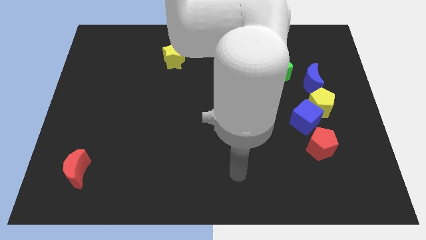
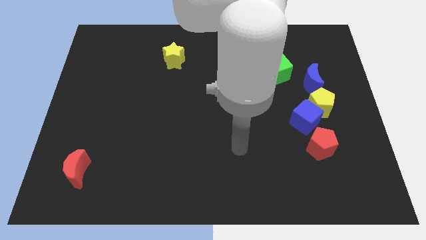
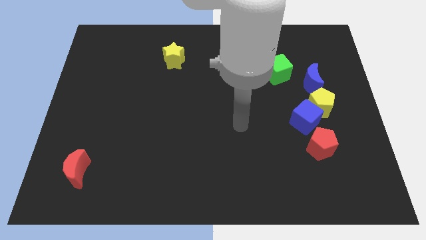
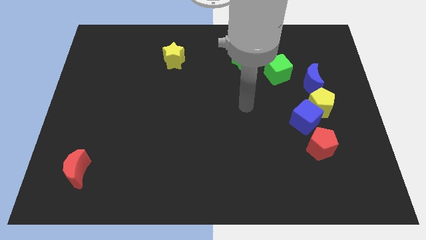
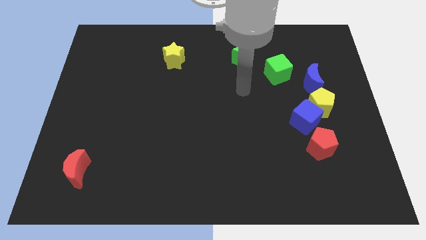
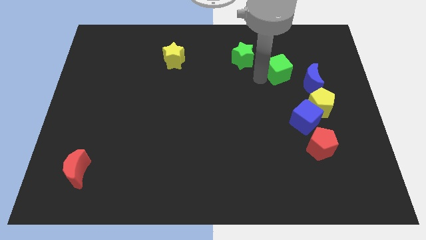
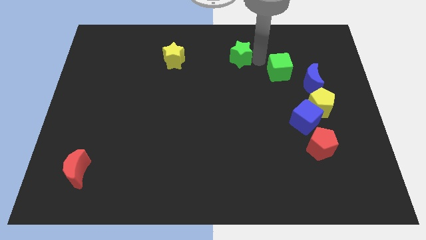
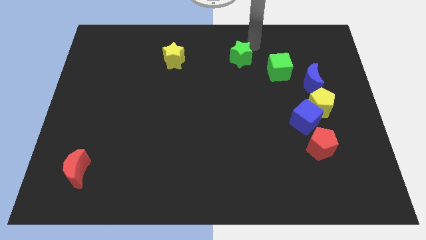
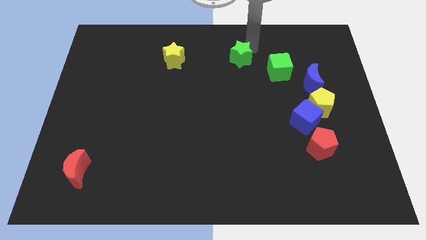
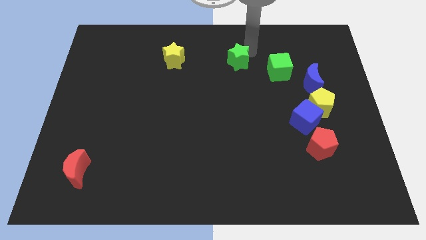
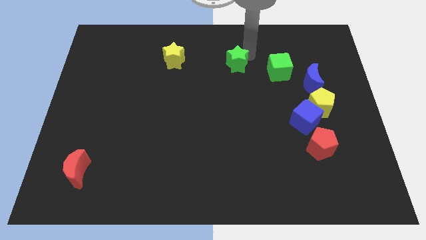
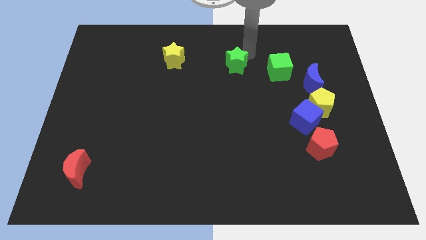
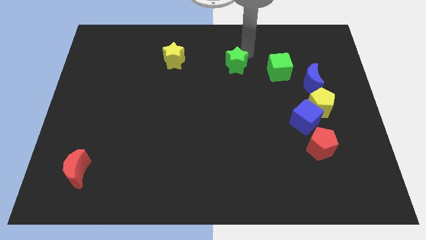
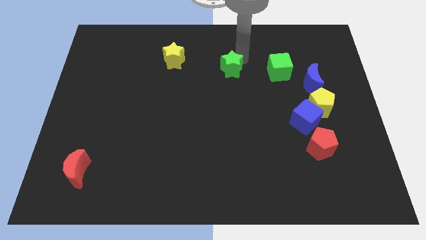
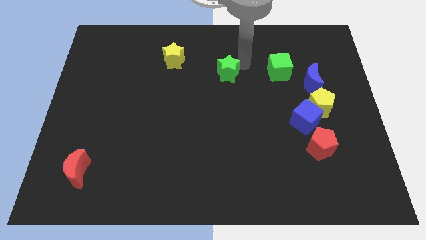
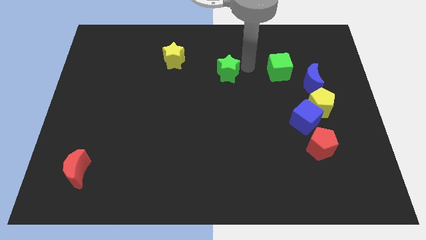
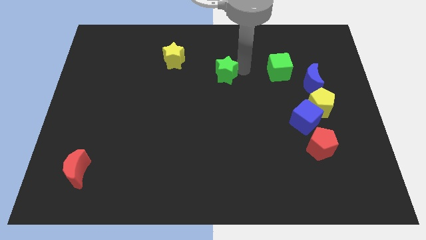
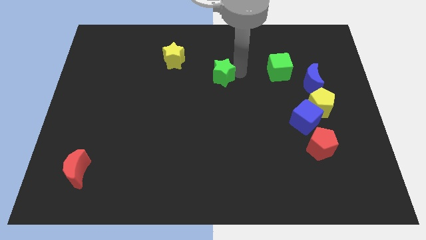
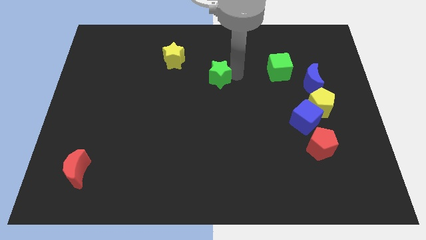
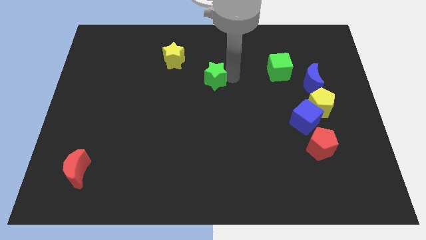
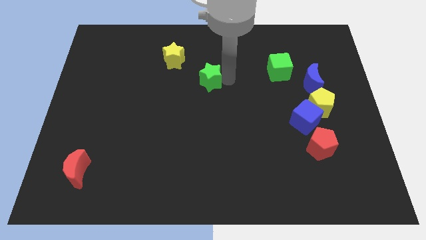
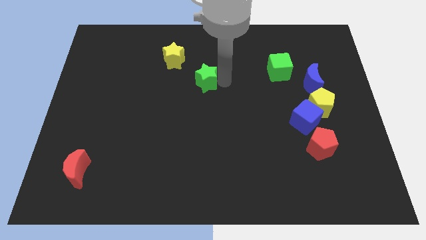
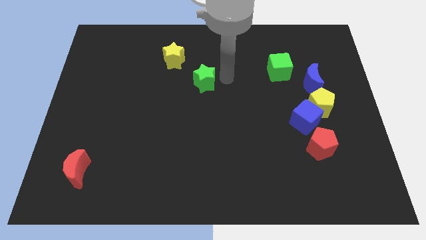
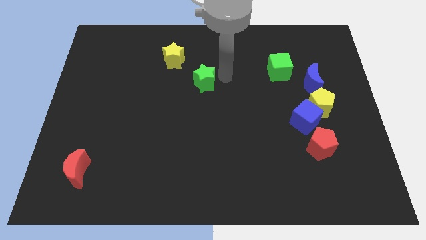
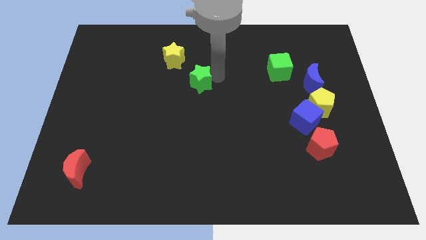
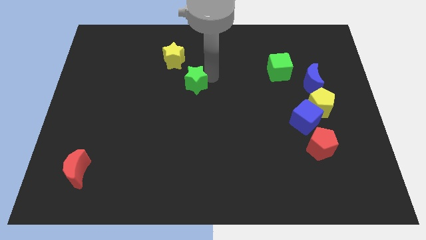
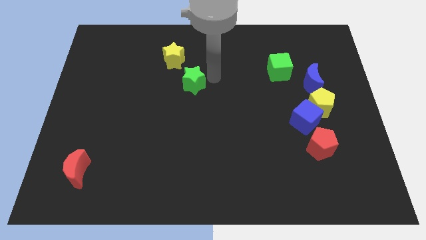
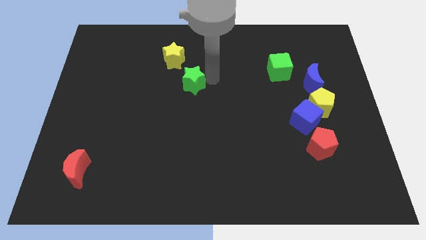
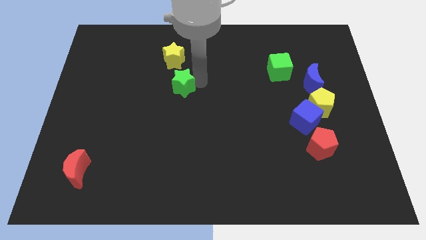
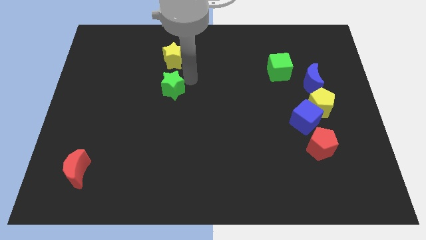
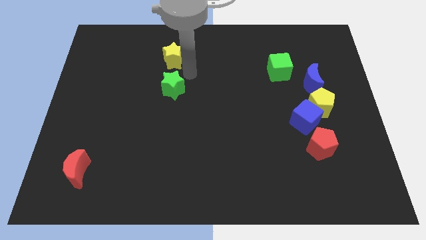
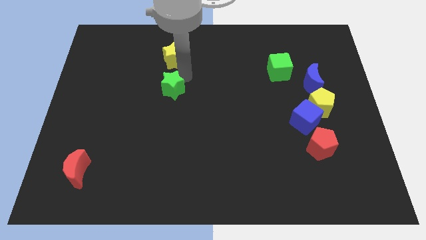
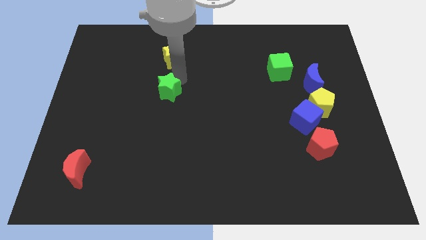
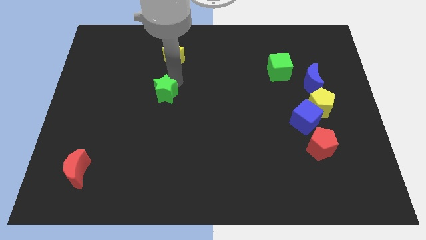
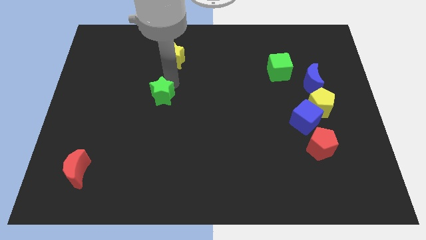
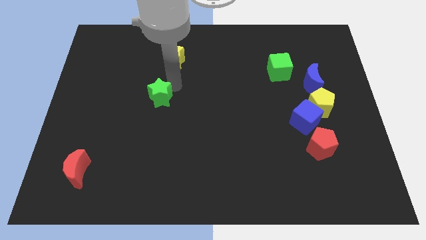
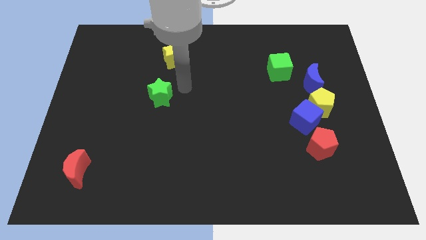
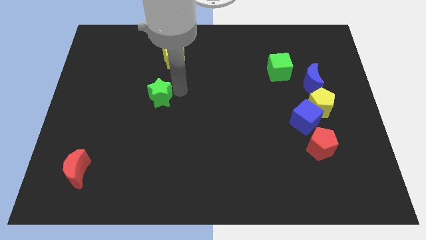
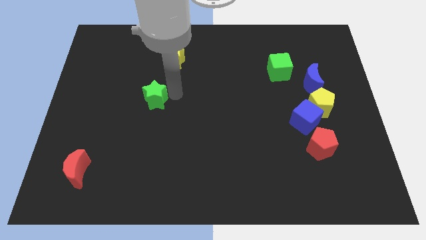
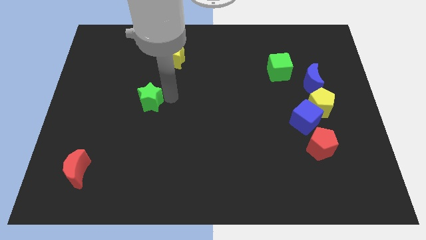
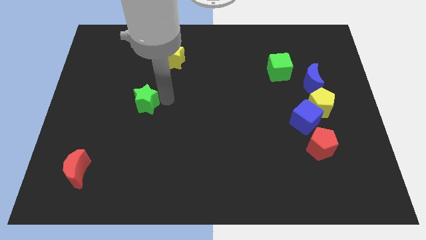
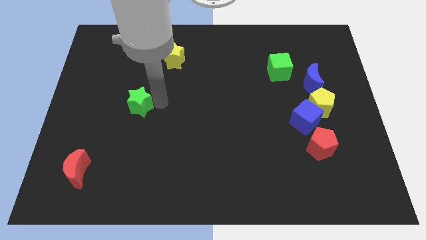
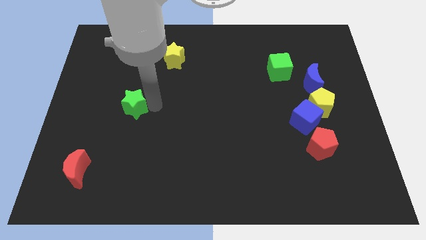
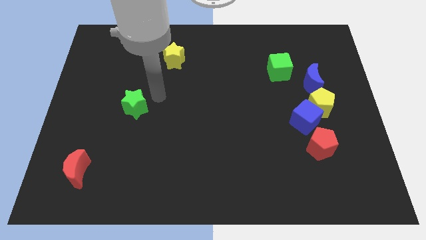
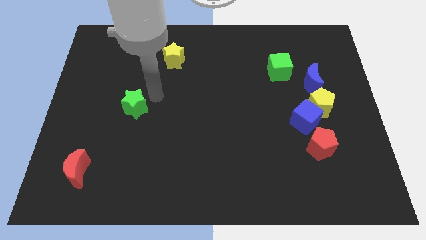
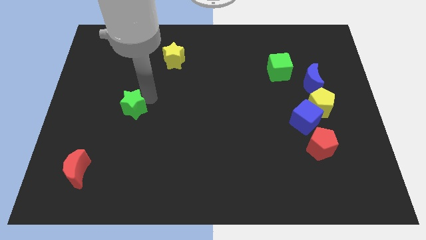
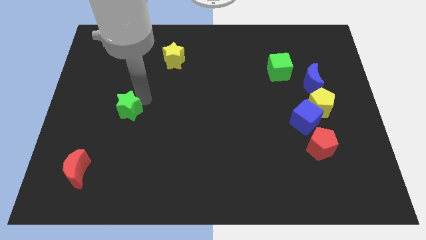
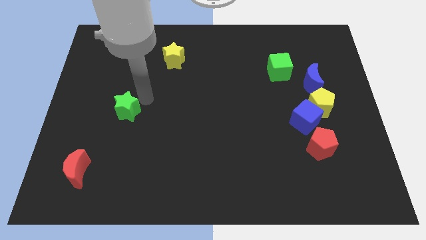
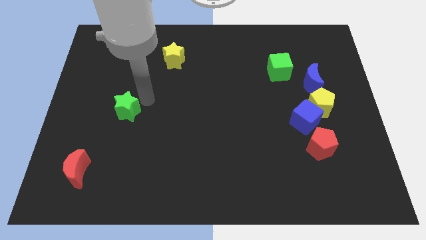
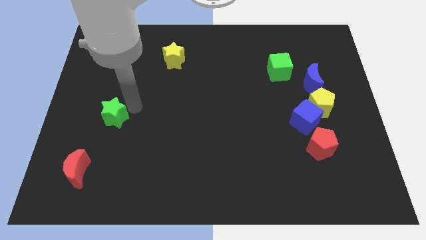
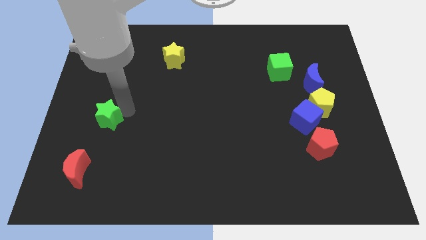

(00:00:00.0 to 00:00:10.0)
put the green star to the top side of the red moon

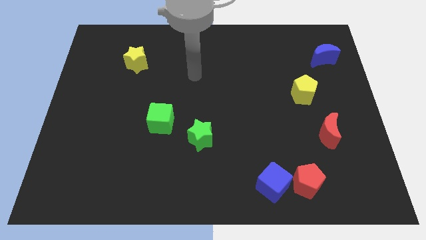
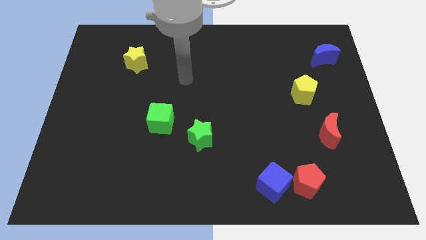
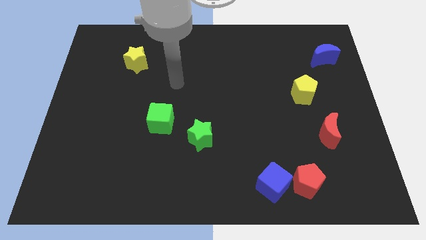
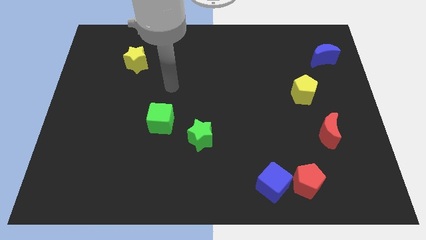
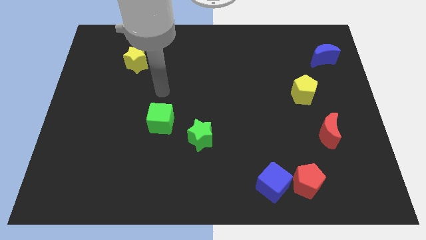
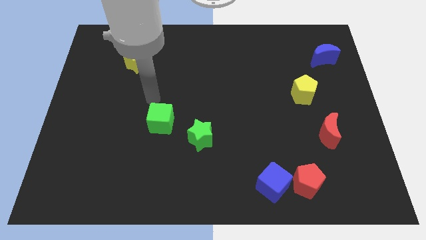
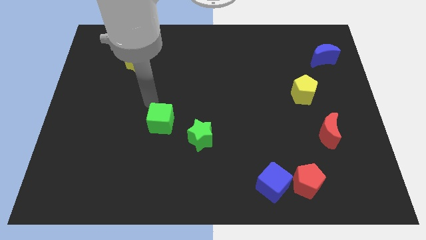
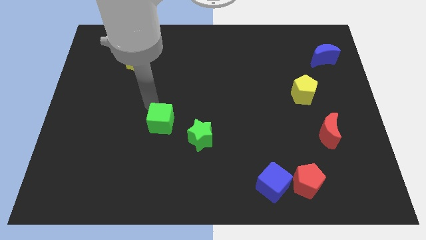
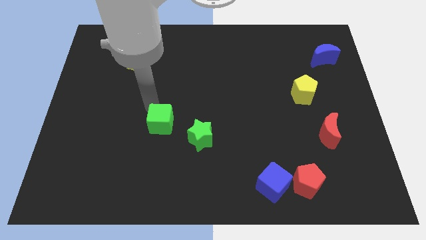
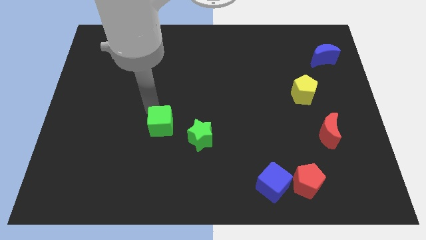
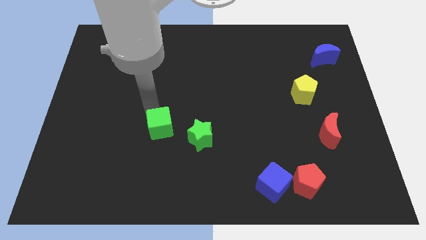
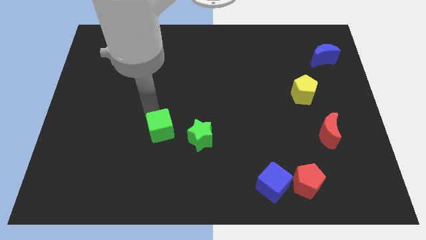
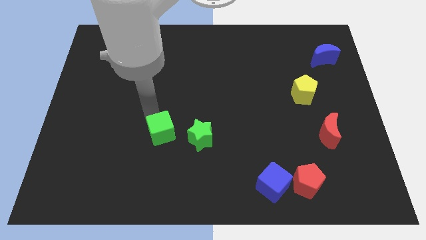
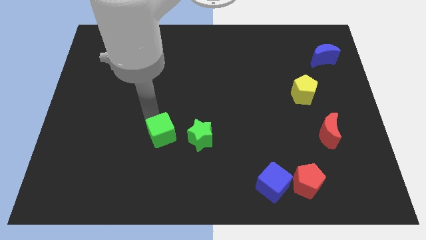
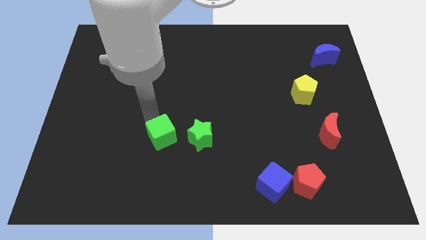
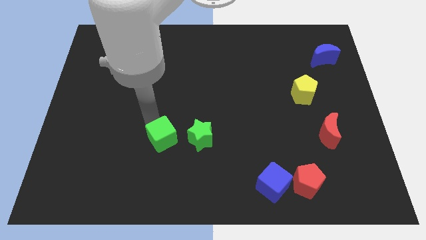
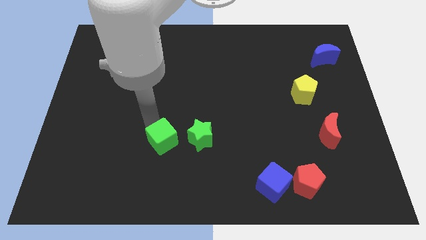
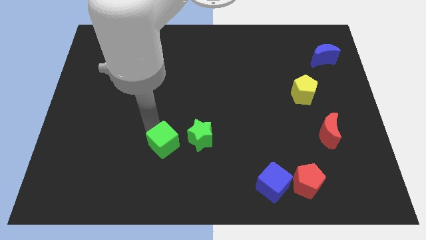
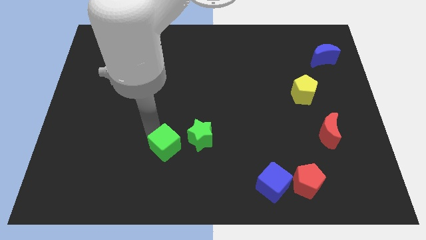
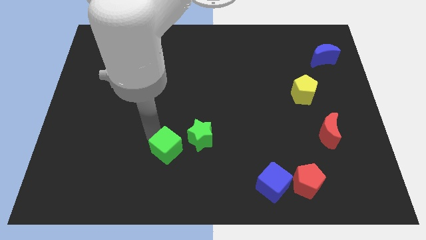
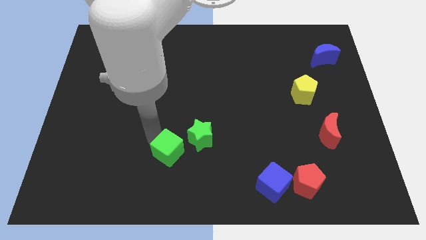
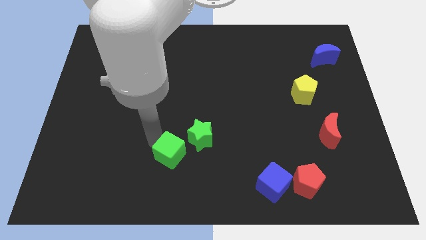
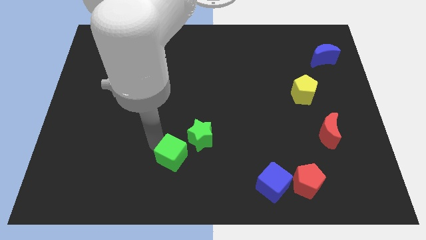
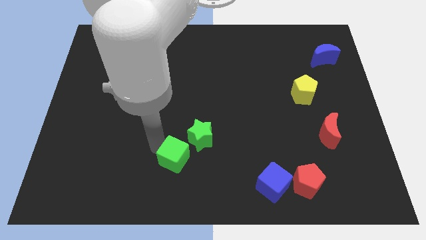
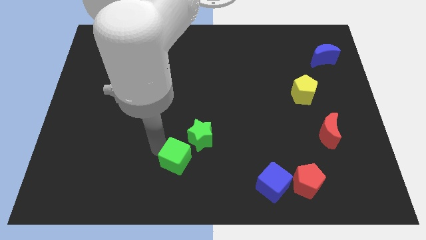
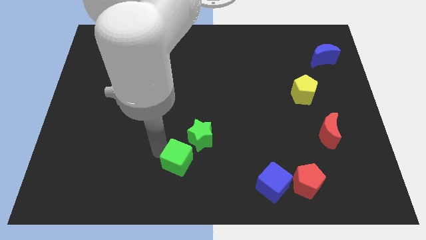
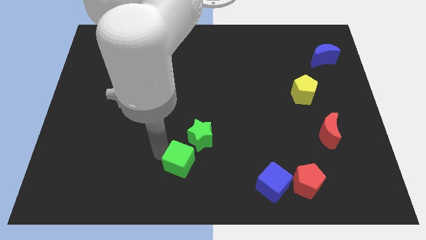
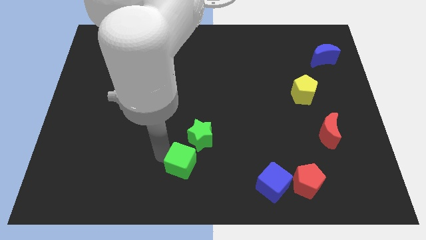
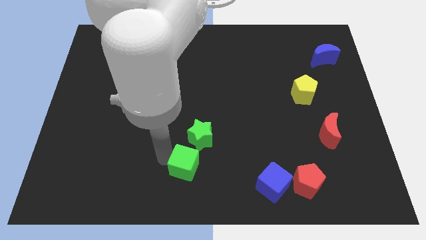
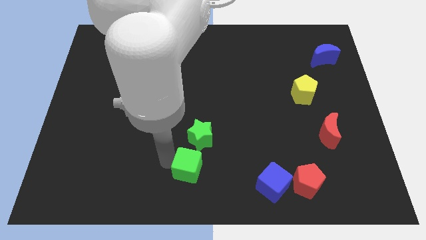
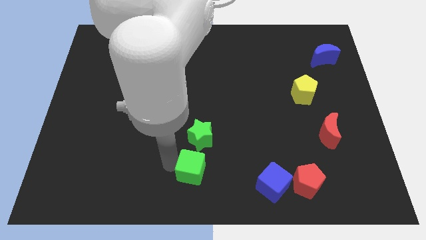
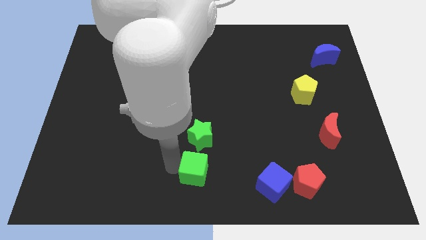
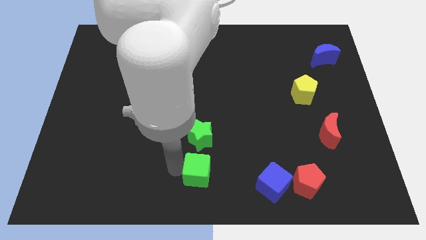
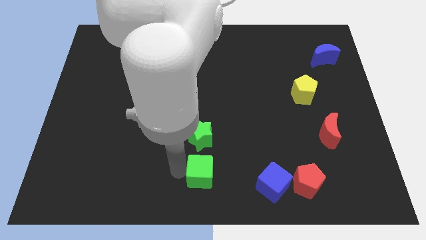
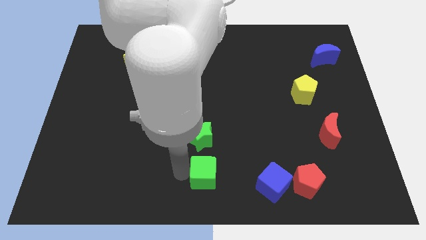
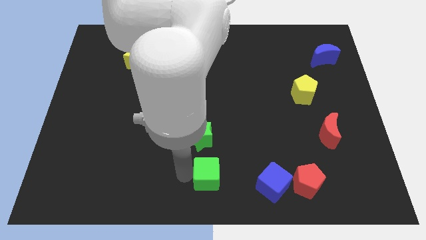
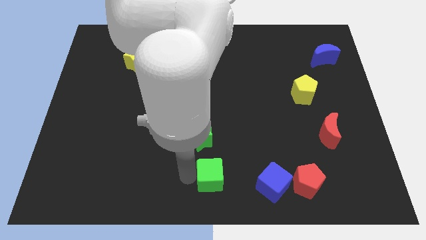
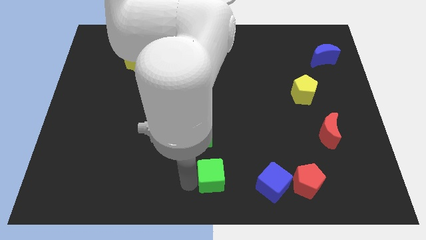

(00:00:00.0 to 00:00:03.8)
move the green cube to the bottom right of the green star
